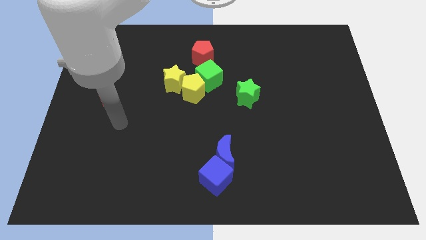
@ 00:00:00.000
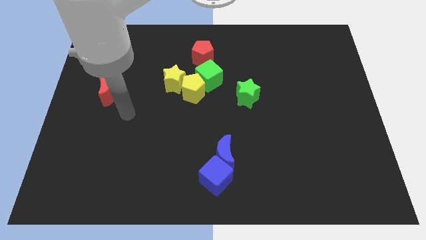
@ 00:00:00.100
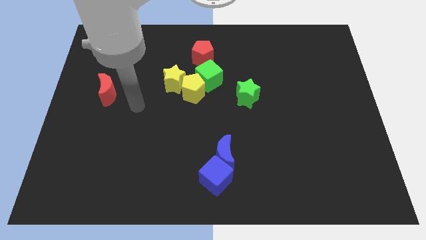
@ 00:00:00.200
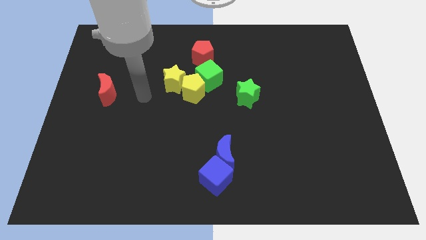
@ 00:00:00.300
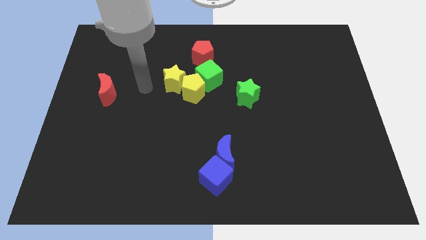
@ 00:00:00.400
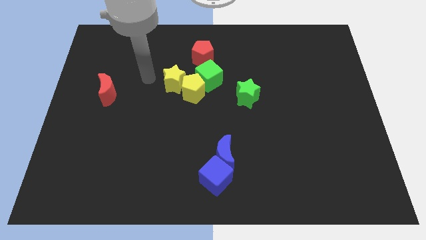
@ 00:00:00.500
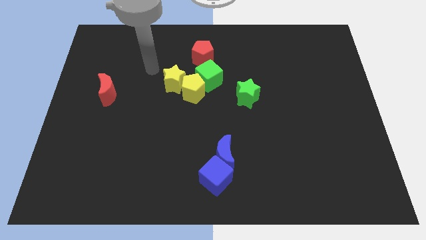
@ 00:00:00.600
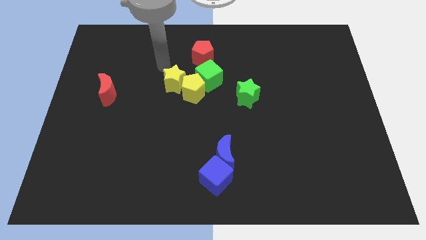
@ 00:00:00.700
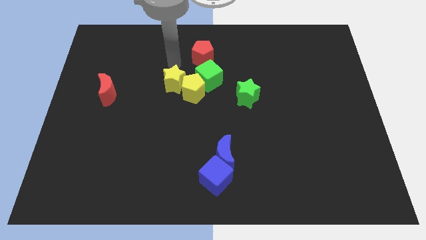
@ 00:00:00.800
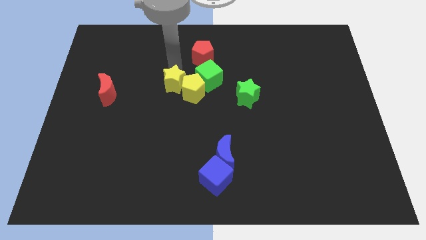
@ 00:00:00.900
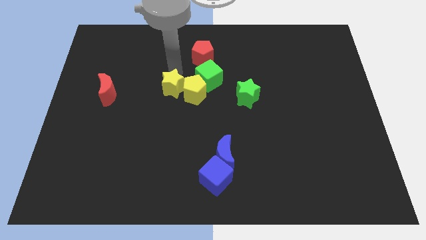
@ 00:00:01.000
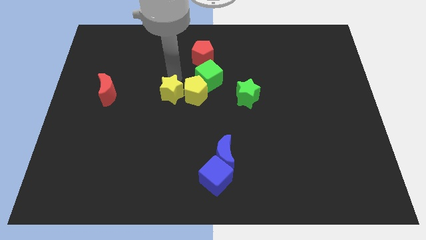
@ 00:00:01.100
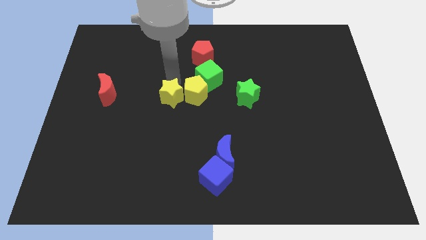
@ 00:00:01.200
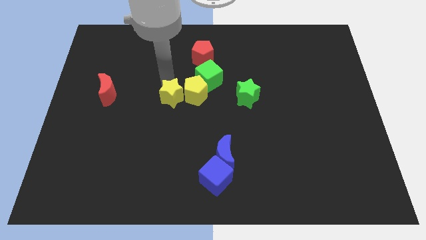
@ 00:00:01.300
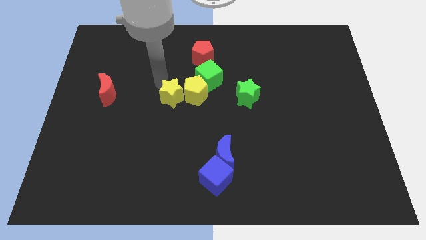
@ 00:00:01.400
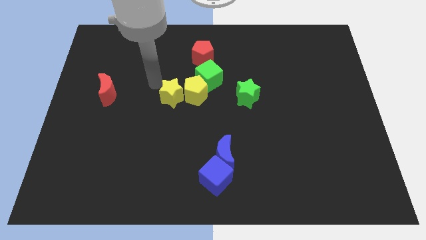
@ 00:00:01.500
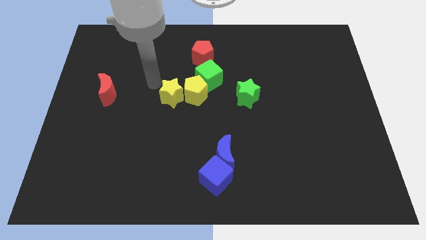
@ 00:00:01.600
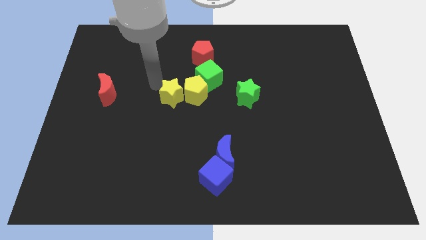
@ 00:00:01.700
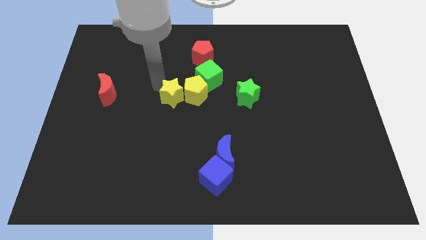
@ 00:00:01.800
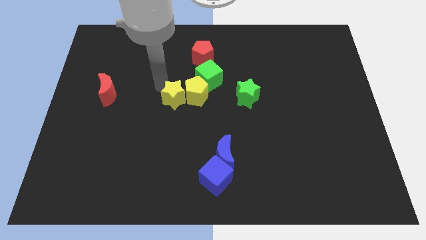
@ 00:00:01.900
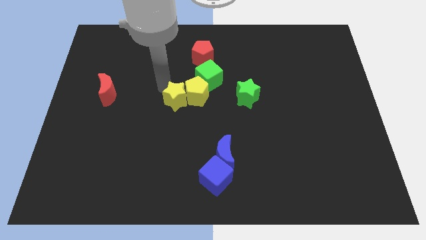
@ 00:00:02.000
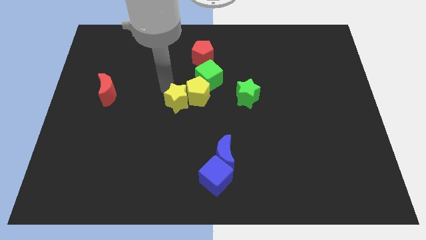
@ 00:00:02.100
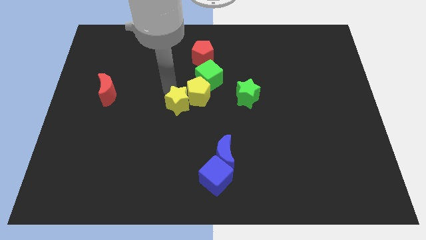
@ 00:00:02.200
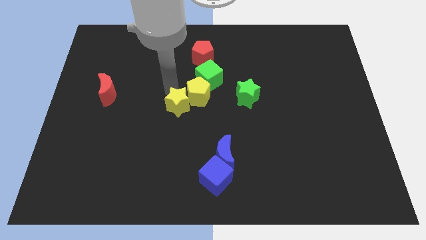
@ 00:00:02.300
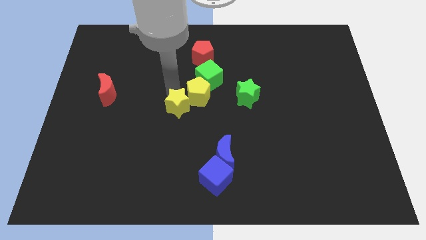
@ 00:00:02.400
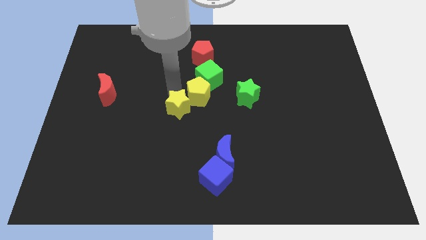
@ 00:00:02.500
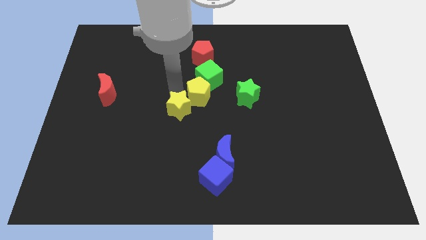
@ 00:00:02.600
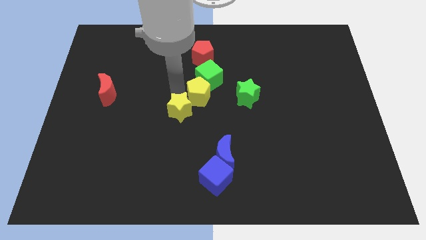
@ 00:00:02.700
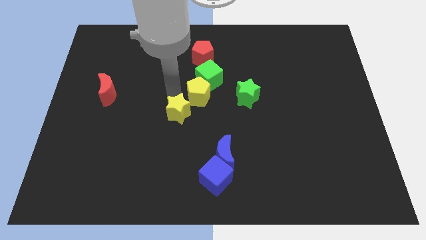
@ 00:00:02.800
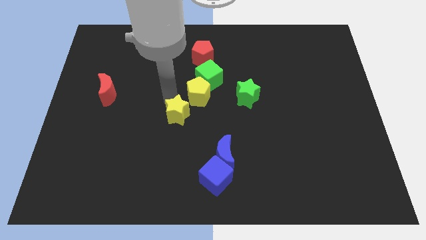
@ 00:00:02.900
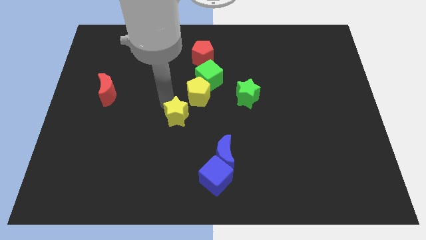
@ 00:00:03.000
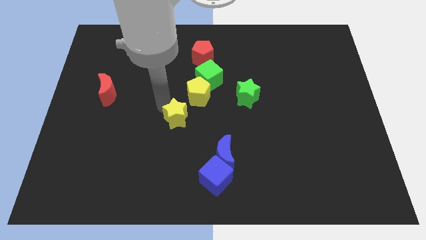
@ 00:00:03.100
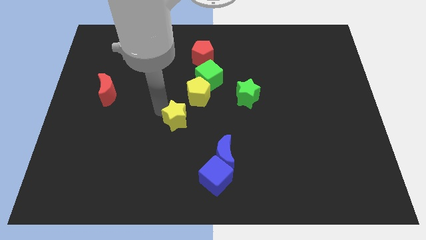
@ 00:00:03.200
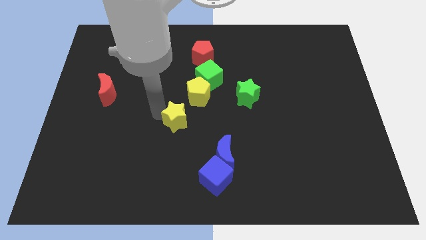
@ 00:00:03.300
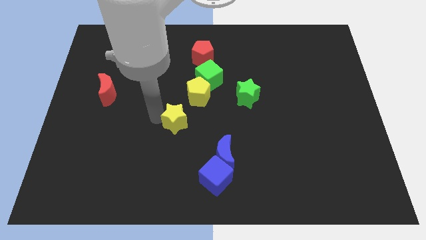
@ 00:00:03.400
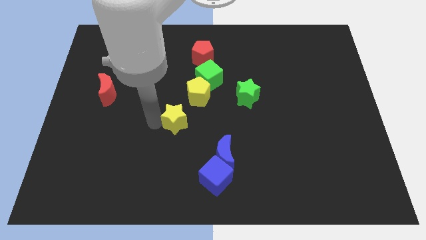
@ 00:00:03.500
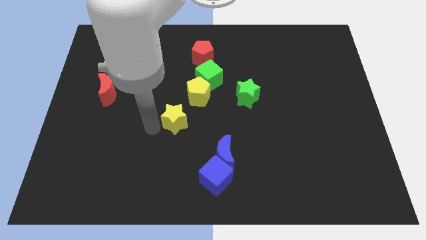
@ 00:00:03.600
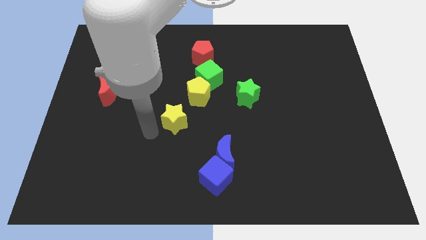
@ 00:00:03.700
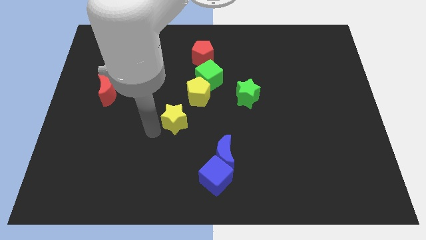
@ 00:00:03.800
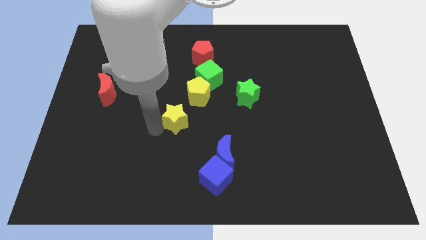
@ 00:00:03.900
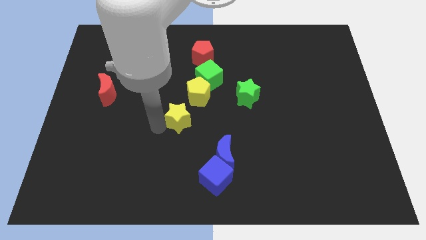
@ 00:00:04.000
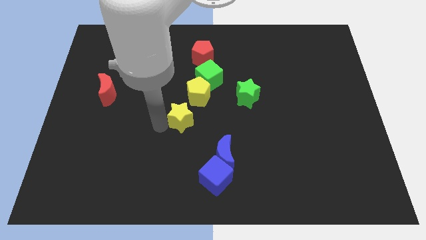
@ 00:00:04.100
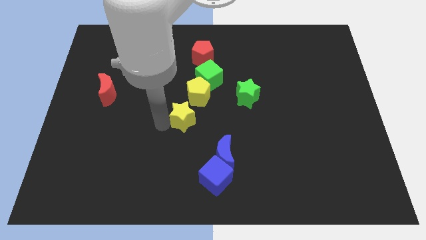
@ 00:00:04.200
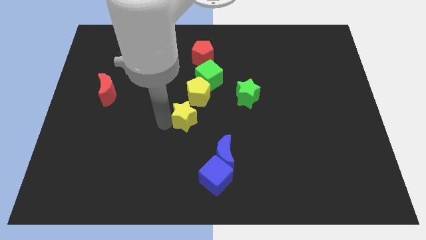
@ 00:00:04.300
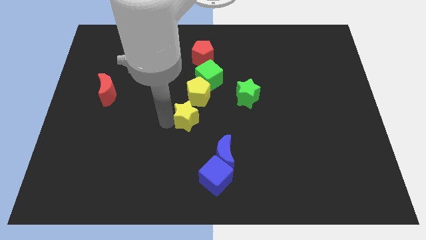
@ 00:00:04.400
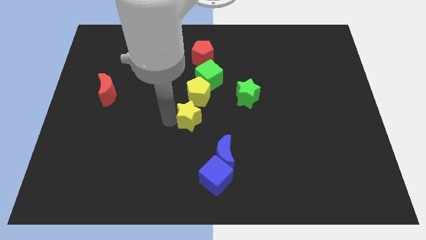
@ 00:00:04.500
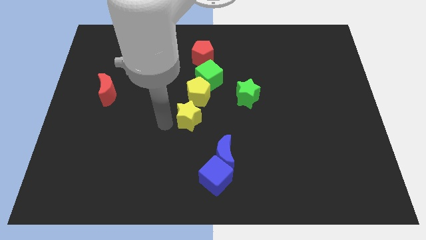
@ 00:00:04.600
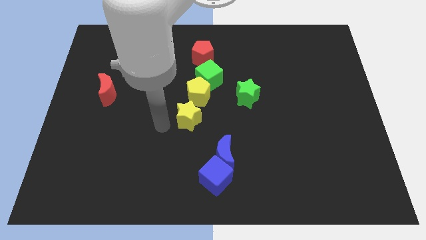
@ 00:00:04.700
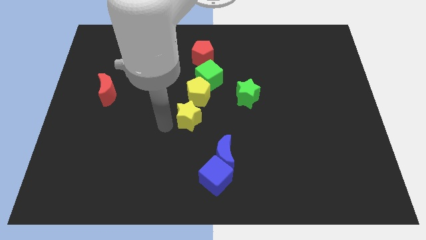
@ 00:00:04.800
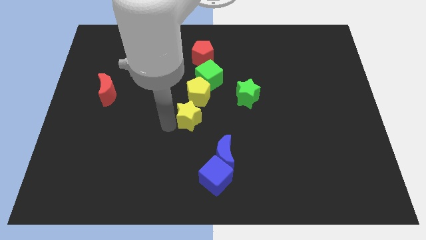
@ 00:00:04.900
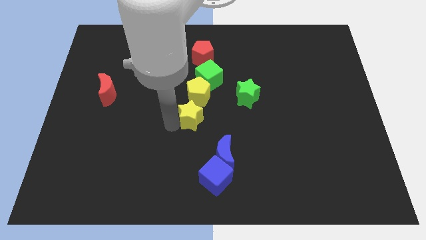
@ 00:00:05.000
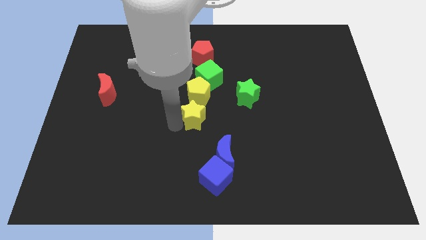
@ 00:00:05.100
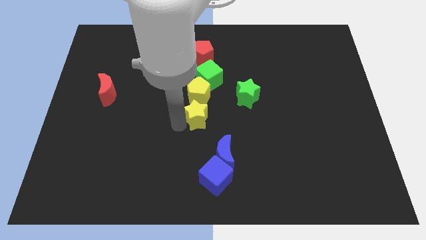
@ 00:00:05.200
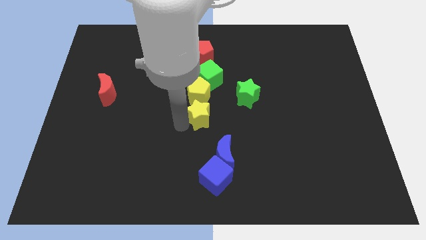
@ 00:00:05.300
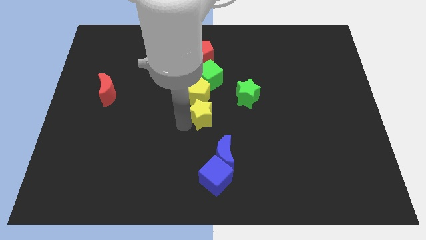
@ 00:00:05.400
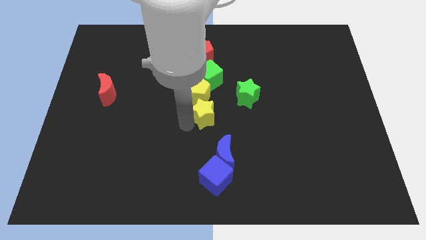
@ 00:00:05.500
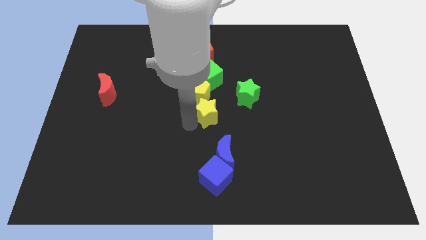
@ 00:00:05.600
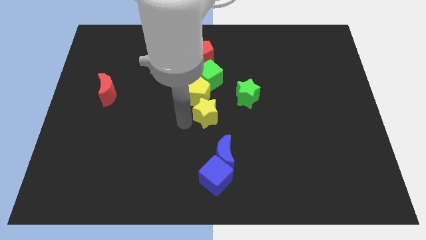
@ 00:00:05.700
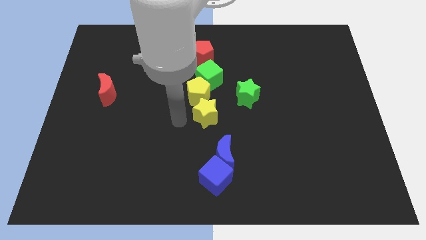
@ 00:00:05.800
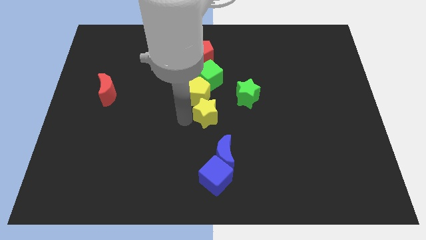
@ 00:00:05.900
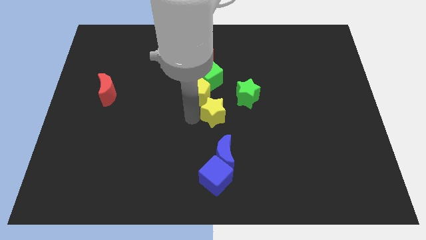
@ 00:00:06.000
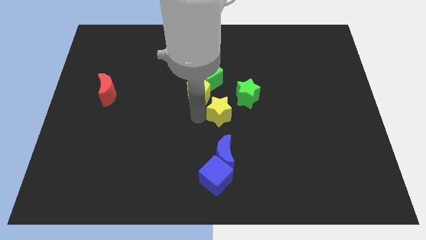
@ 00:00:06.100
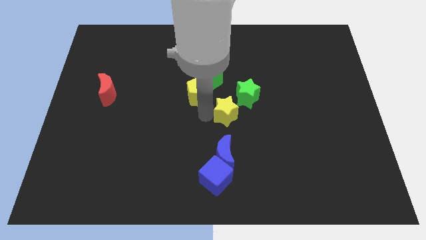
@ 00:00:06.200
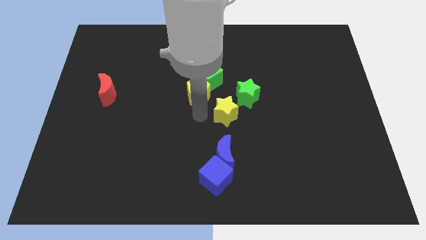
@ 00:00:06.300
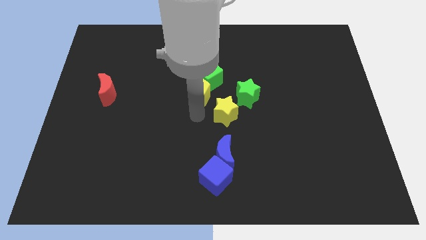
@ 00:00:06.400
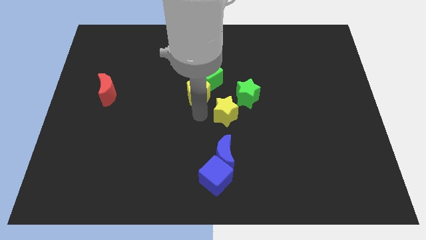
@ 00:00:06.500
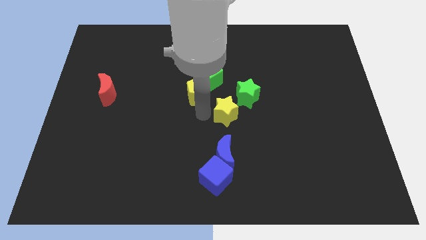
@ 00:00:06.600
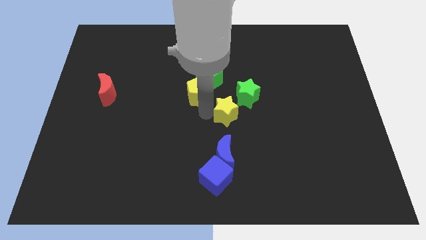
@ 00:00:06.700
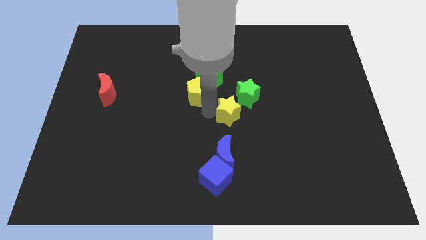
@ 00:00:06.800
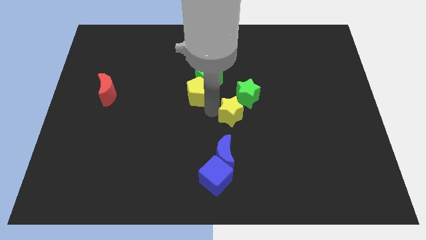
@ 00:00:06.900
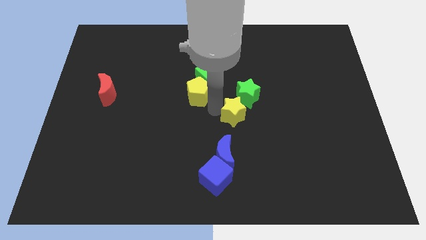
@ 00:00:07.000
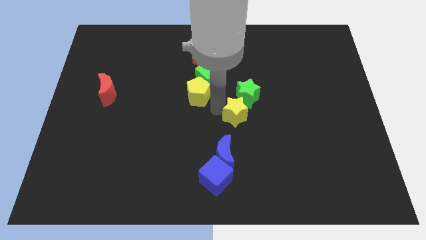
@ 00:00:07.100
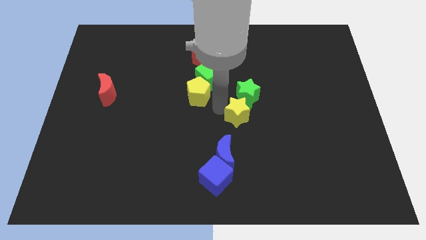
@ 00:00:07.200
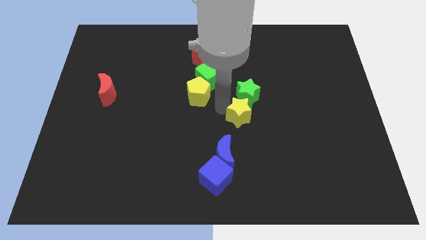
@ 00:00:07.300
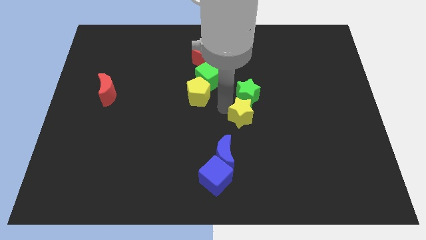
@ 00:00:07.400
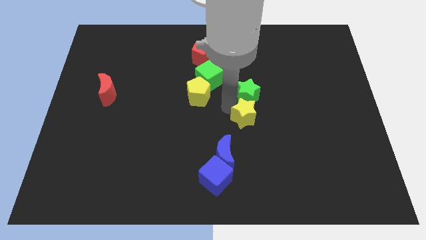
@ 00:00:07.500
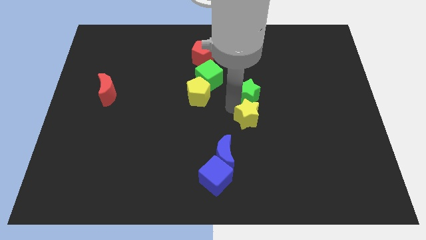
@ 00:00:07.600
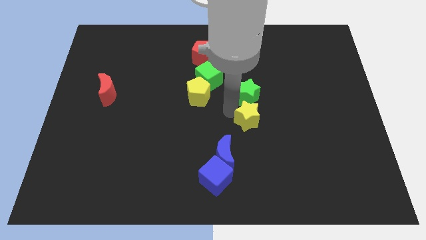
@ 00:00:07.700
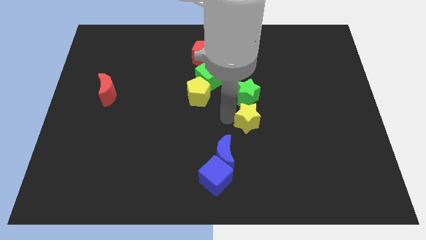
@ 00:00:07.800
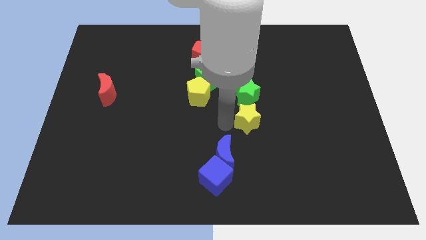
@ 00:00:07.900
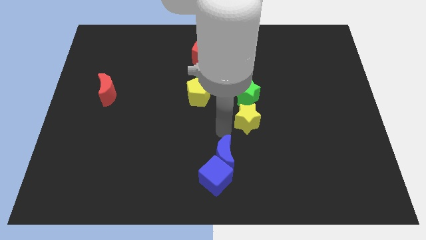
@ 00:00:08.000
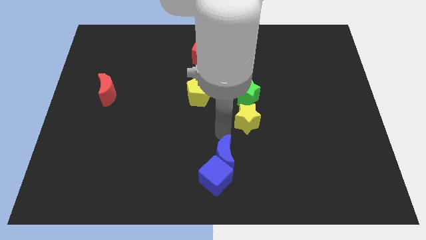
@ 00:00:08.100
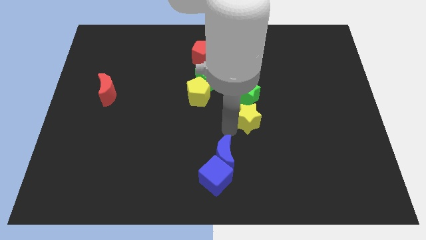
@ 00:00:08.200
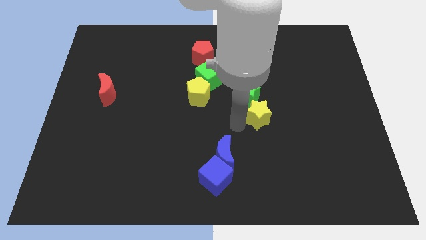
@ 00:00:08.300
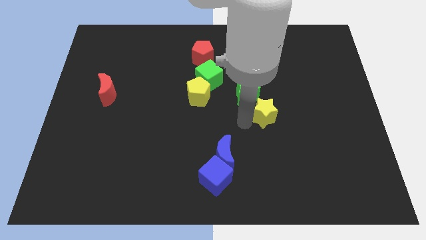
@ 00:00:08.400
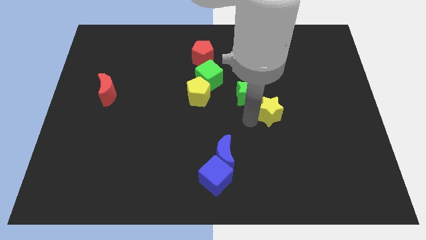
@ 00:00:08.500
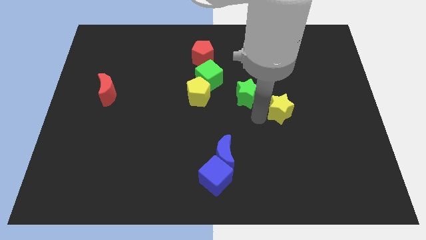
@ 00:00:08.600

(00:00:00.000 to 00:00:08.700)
slide the yellow star right
